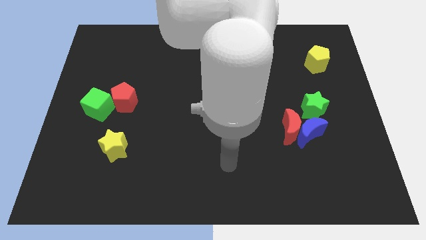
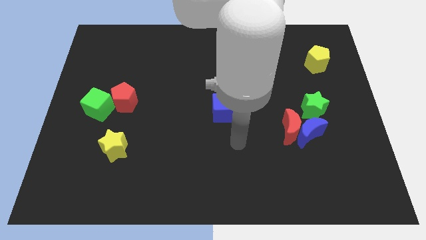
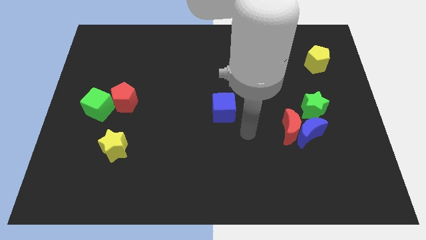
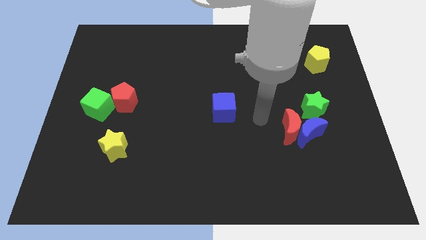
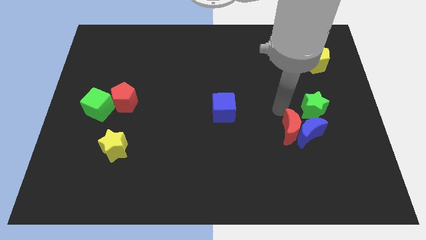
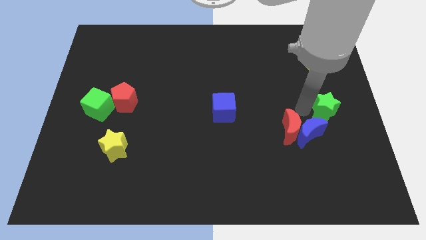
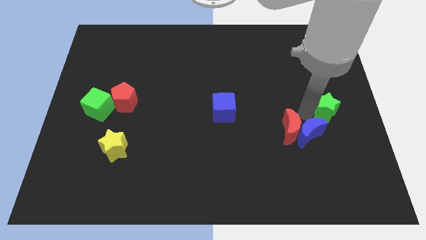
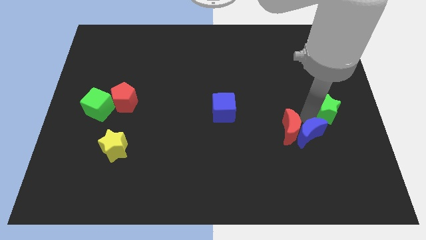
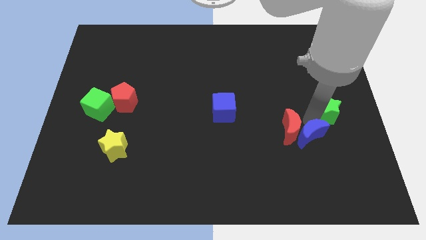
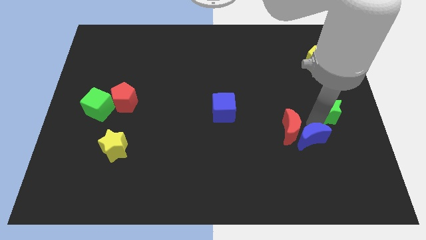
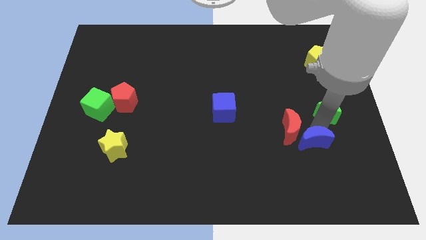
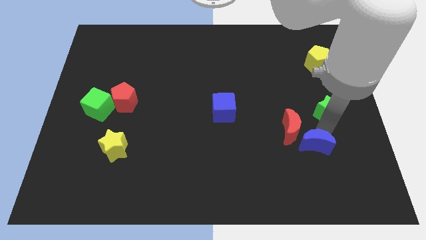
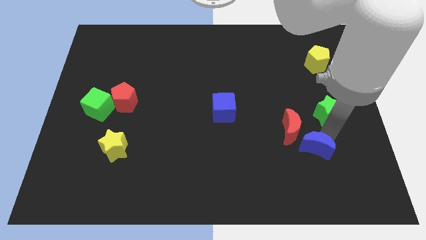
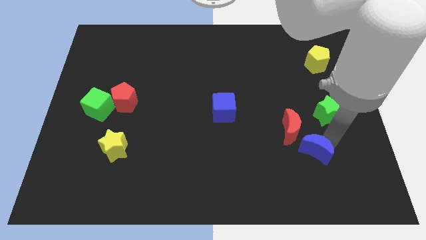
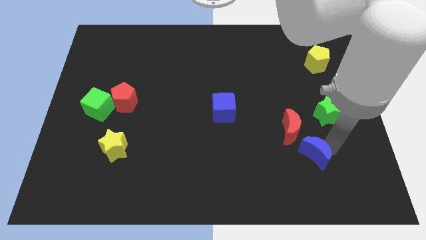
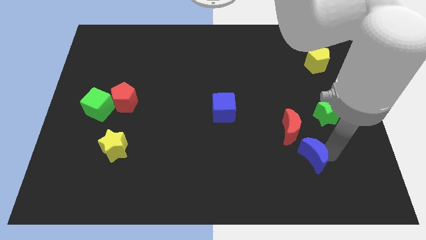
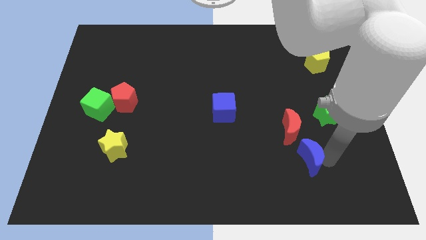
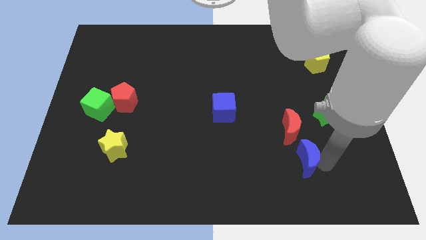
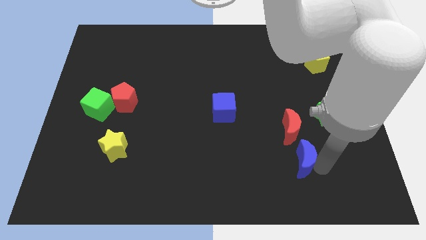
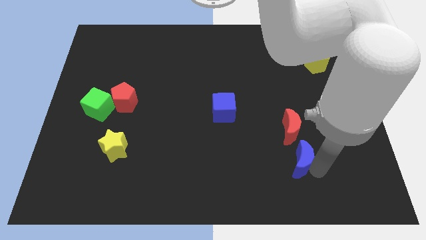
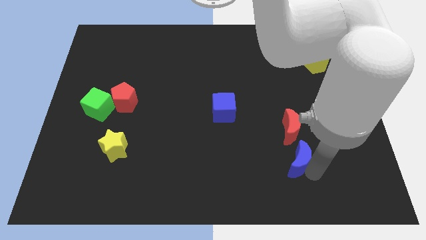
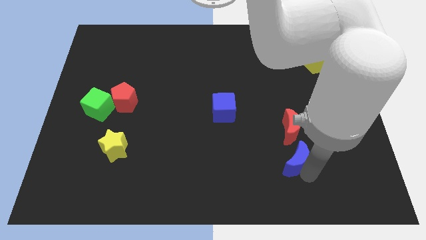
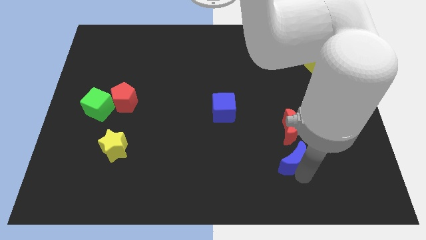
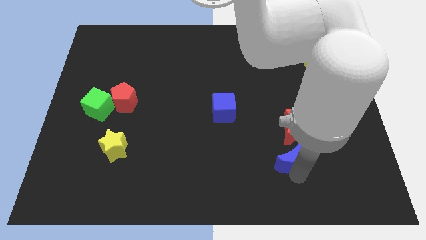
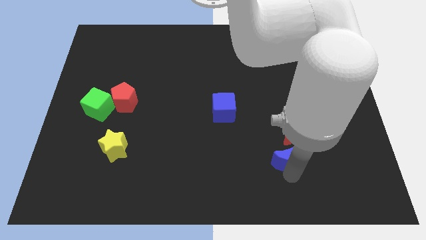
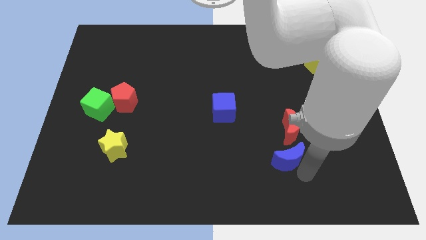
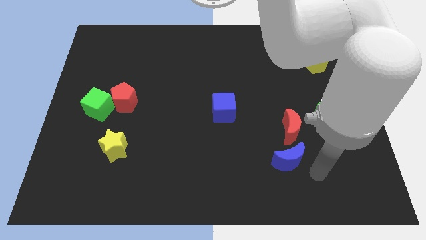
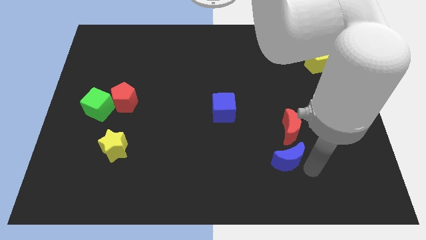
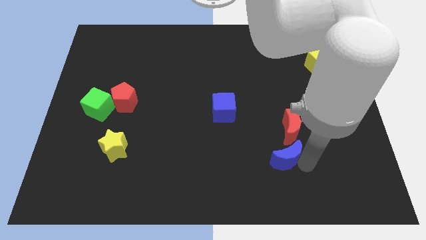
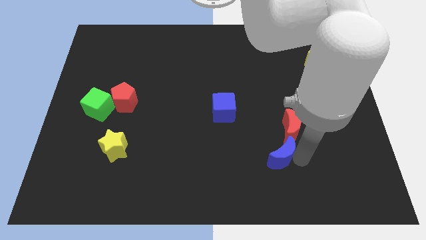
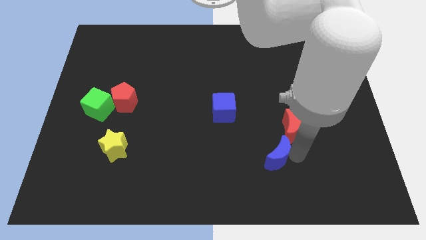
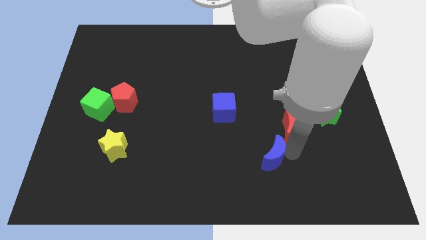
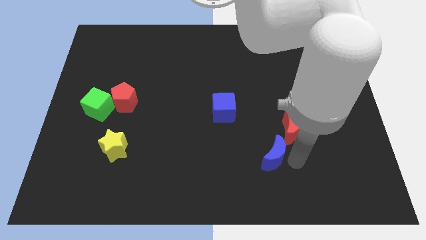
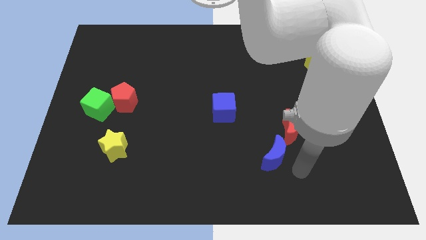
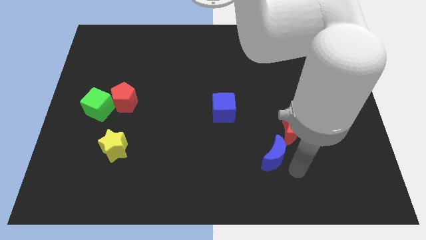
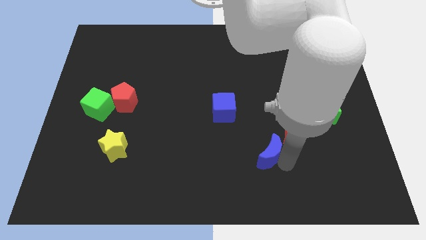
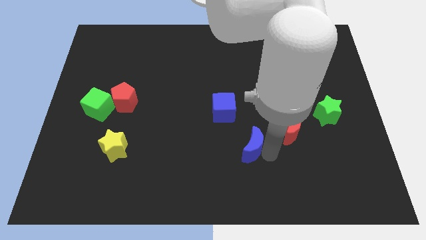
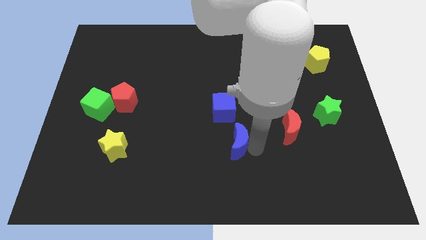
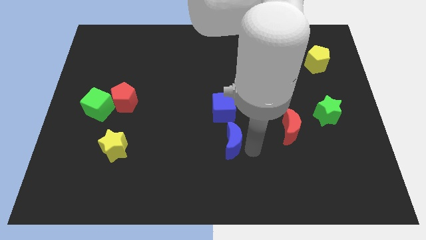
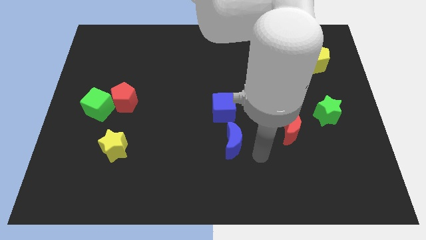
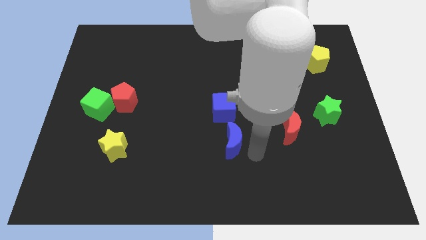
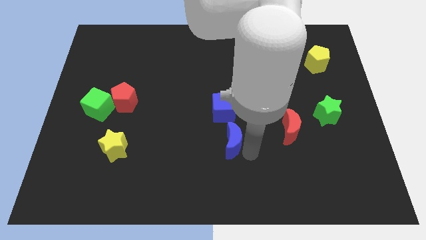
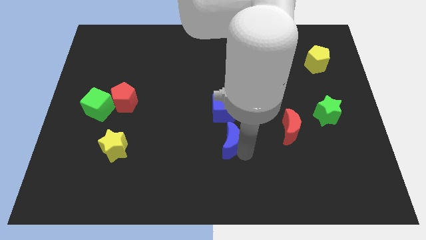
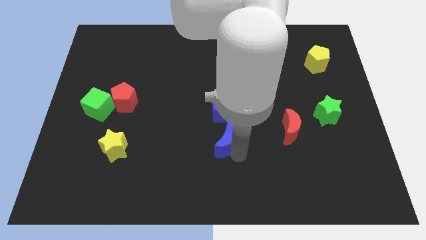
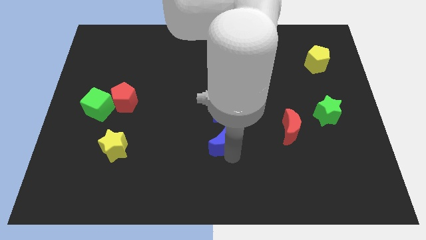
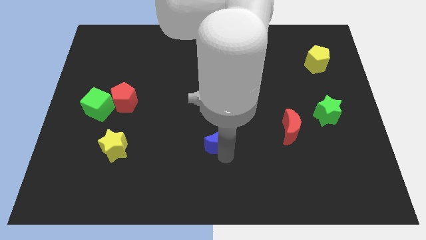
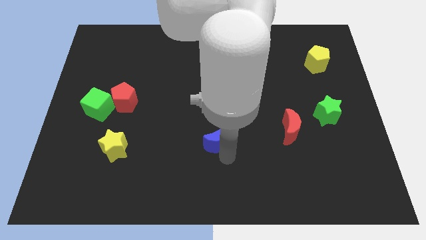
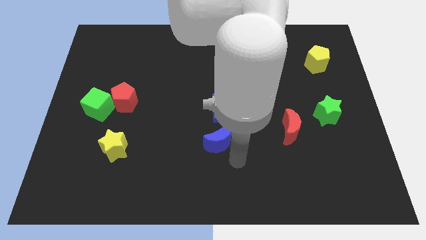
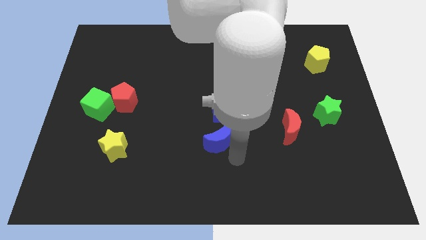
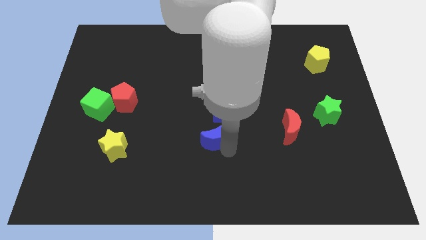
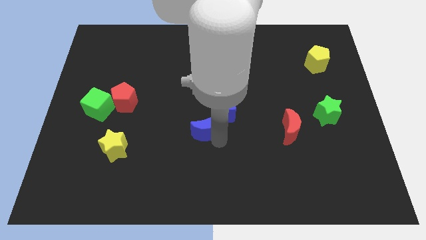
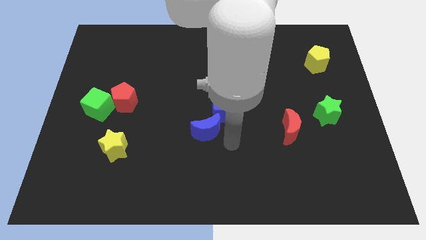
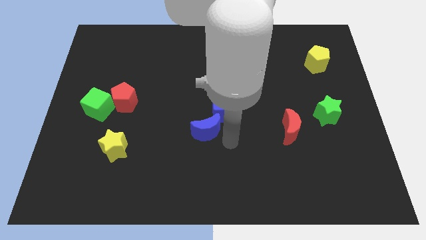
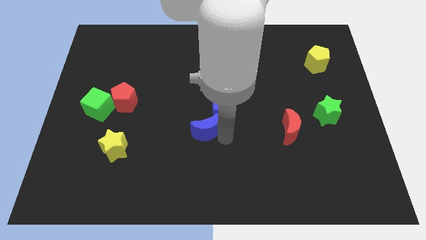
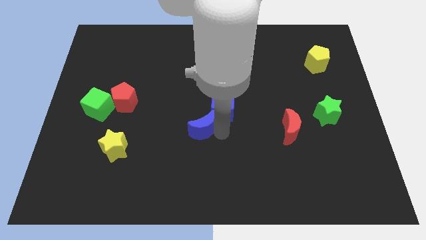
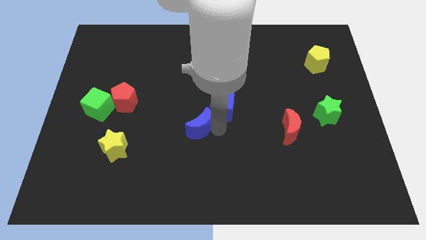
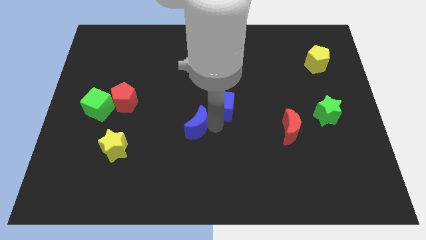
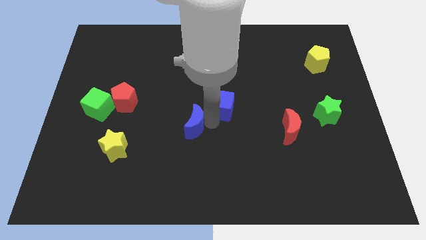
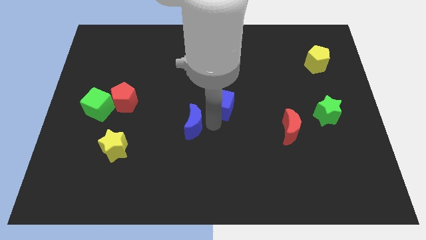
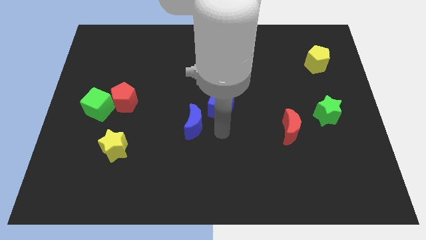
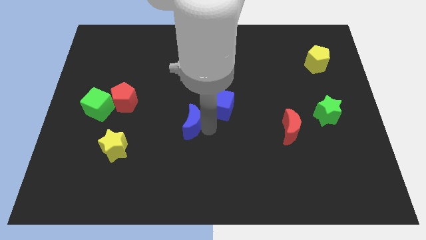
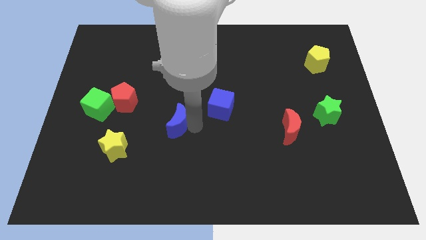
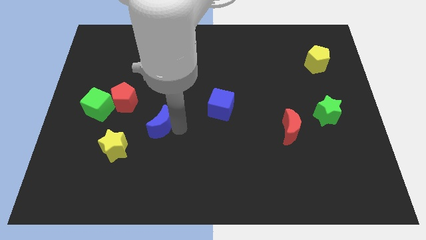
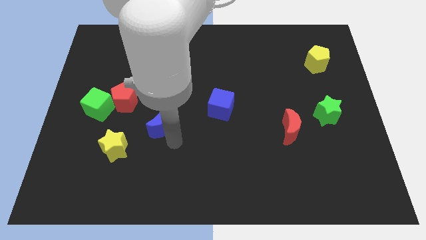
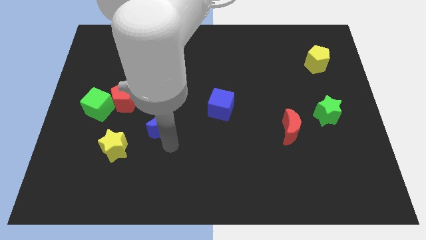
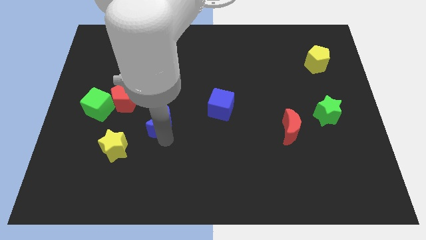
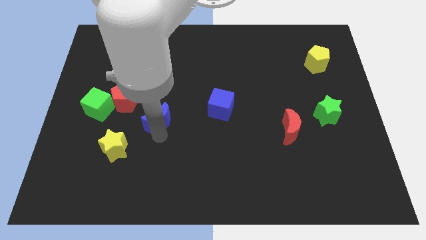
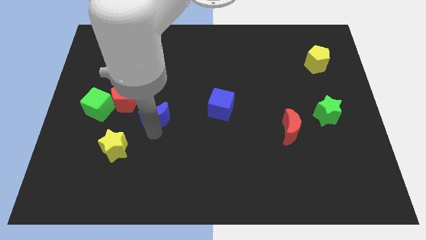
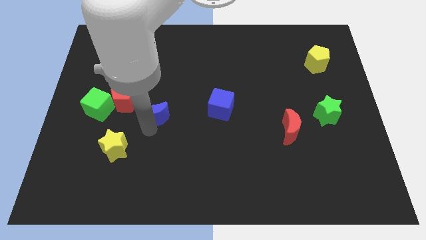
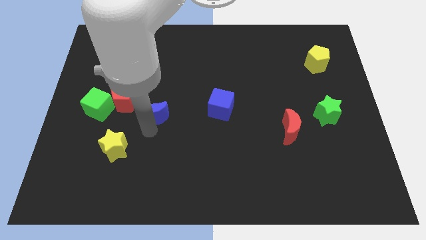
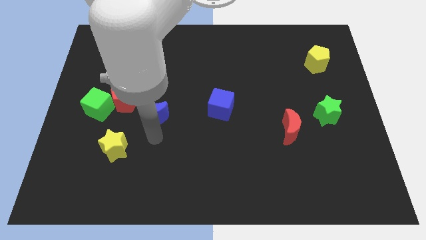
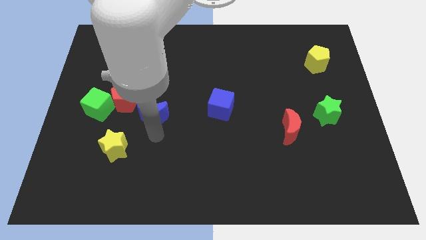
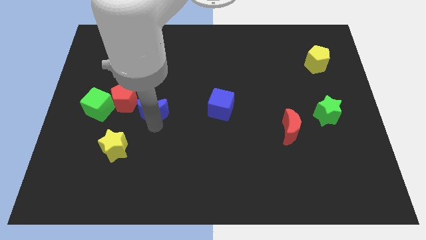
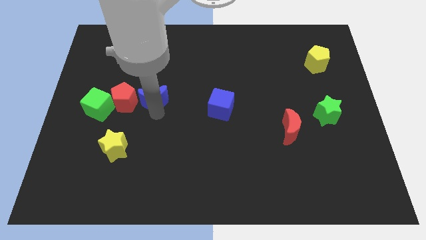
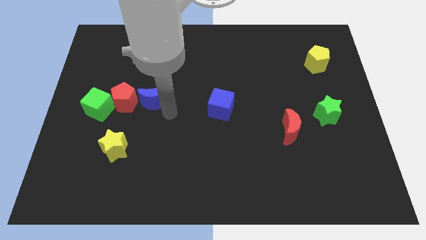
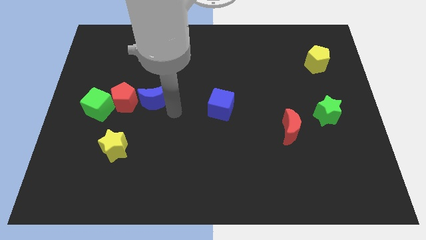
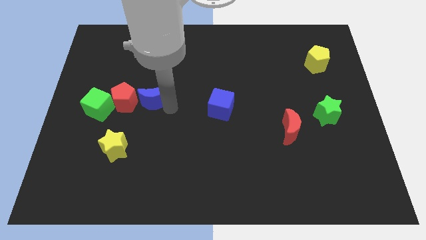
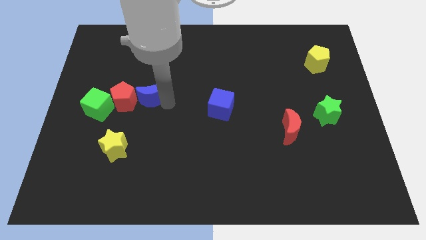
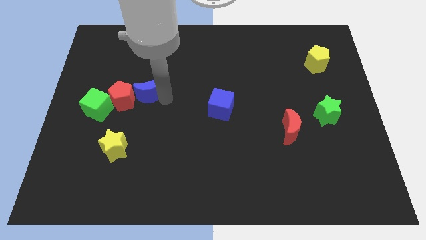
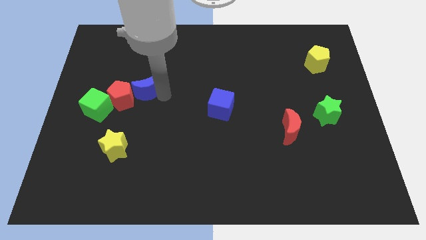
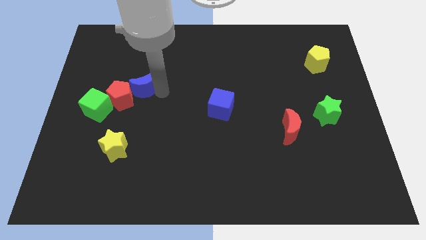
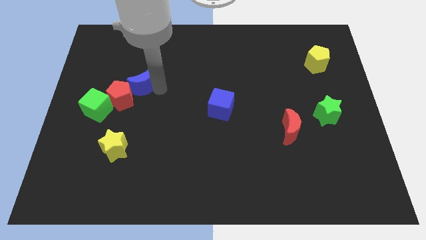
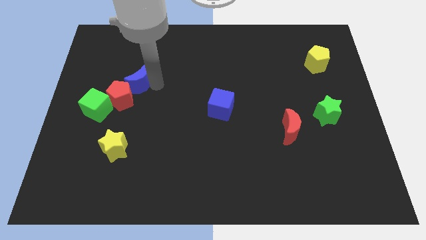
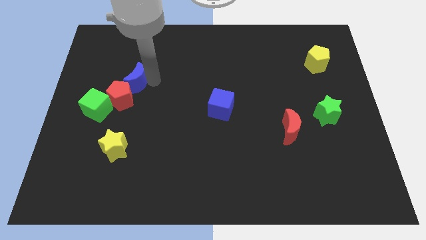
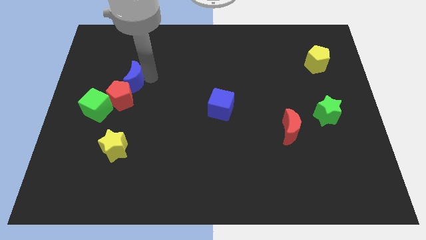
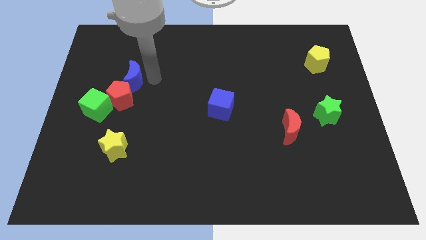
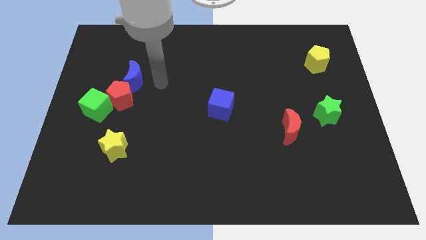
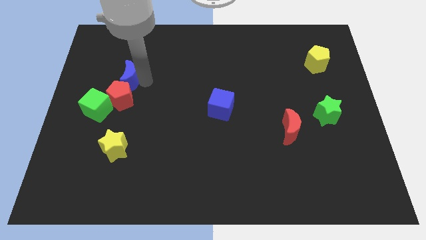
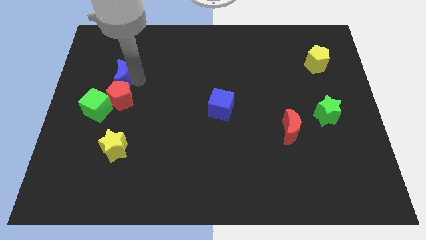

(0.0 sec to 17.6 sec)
push the blue moon above the green cube
